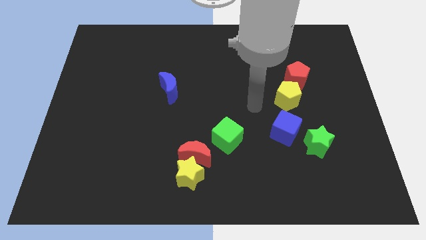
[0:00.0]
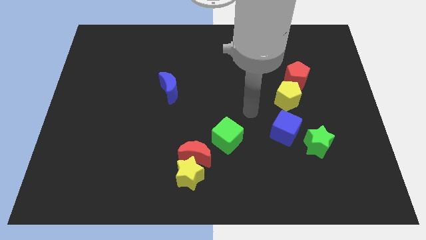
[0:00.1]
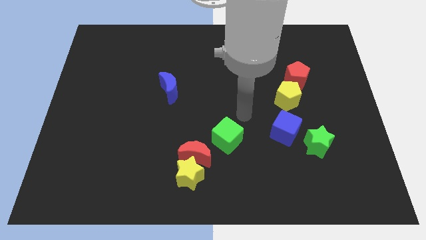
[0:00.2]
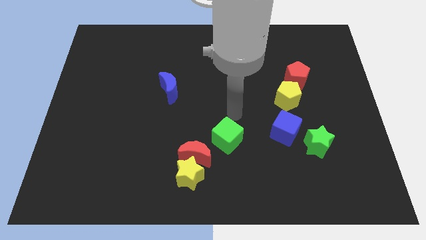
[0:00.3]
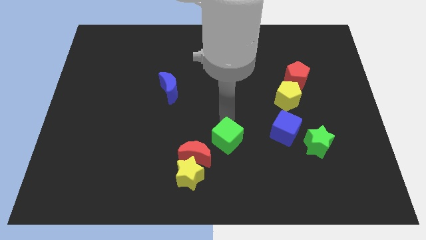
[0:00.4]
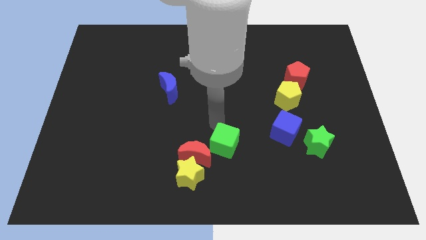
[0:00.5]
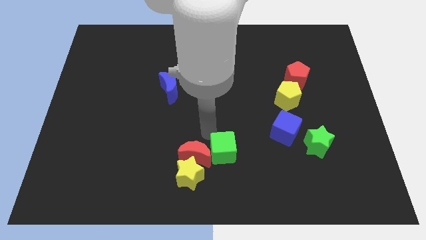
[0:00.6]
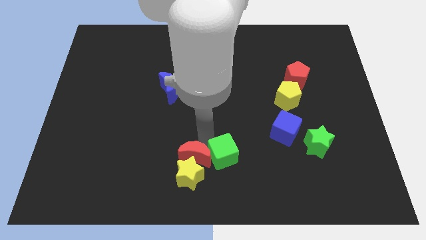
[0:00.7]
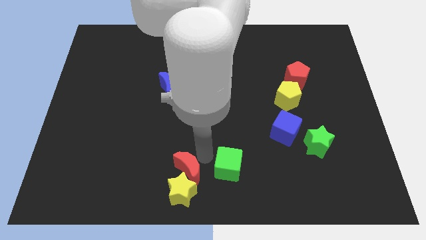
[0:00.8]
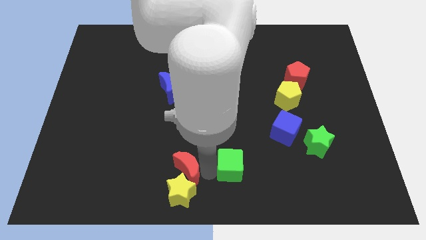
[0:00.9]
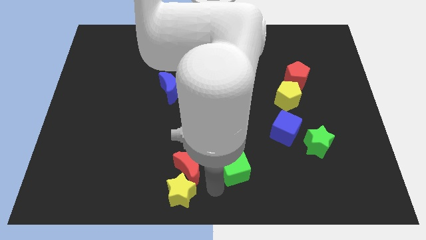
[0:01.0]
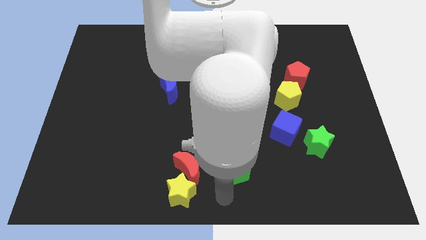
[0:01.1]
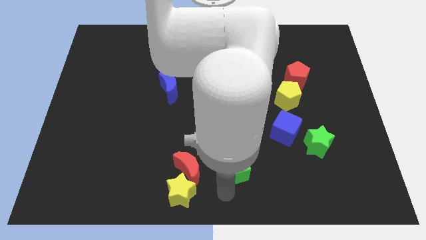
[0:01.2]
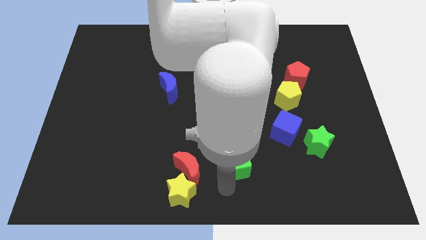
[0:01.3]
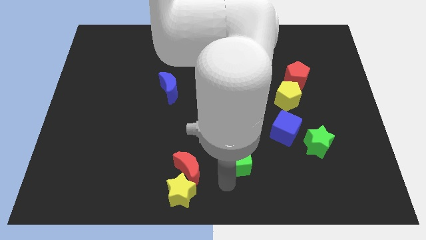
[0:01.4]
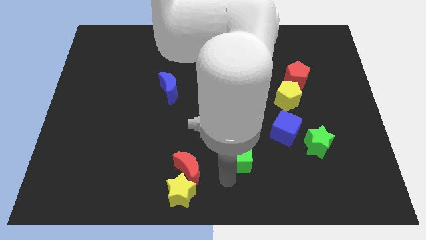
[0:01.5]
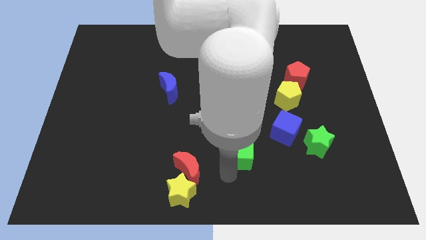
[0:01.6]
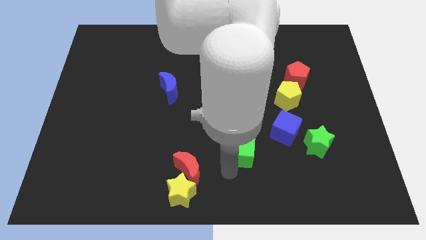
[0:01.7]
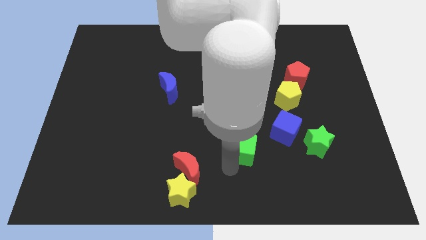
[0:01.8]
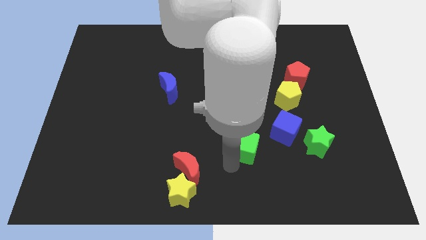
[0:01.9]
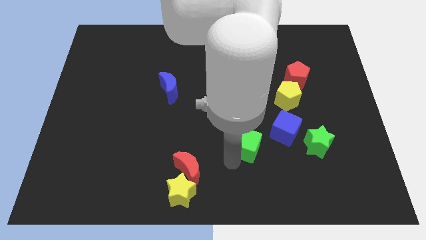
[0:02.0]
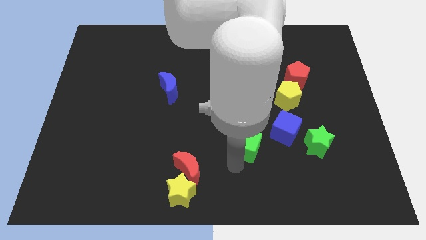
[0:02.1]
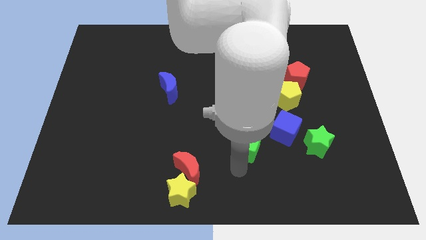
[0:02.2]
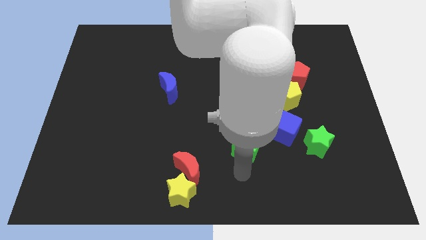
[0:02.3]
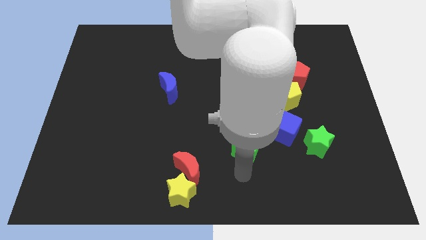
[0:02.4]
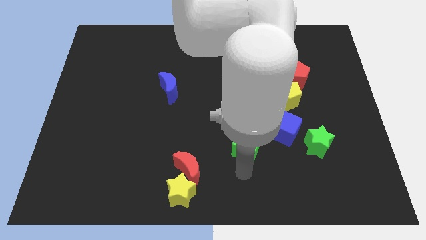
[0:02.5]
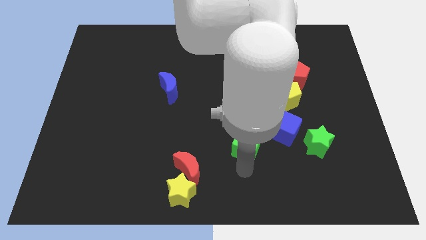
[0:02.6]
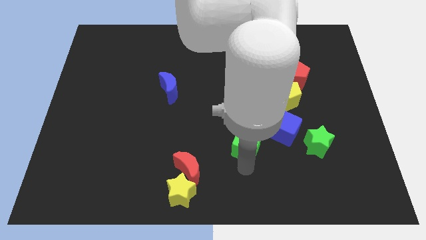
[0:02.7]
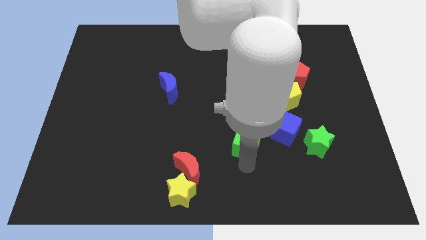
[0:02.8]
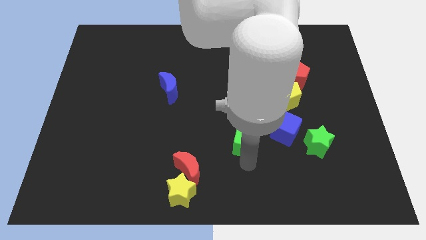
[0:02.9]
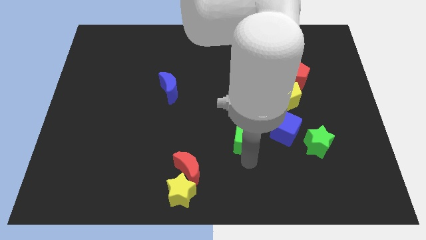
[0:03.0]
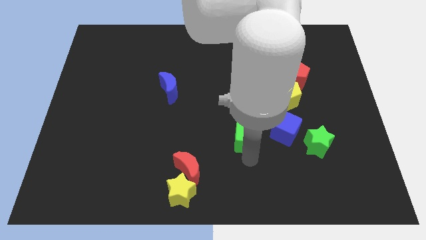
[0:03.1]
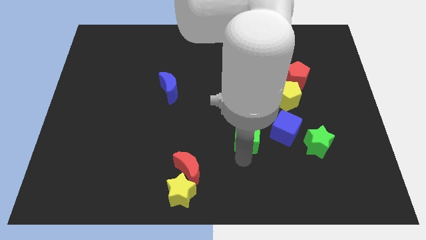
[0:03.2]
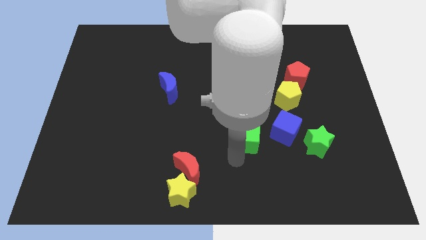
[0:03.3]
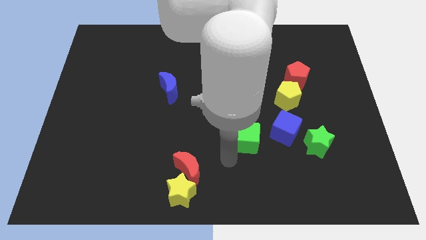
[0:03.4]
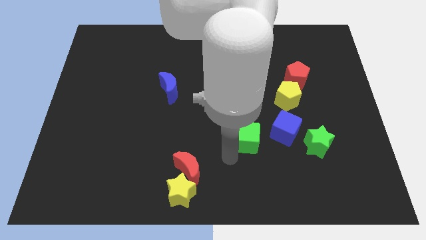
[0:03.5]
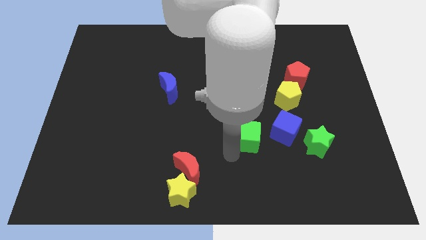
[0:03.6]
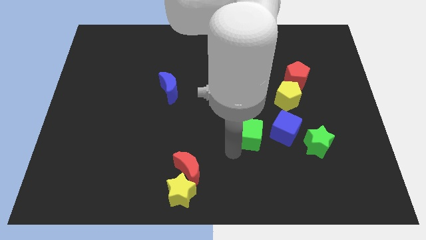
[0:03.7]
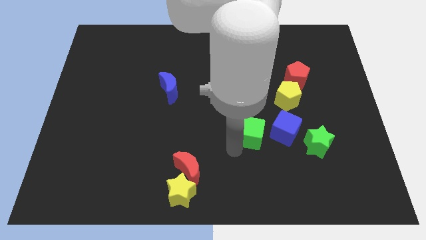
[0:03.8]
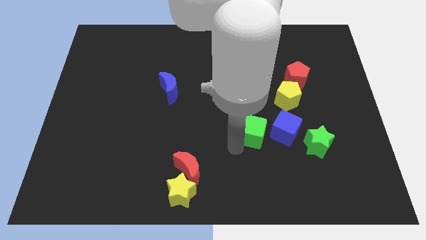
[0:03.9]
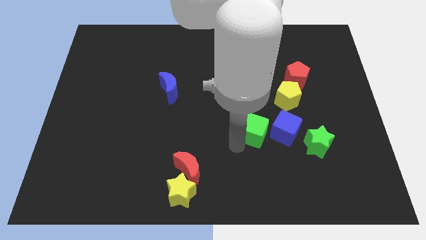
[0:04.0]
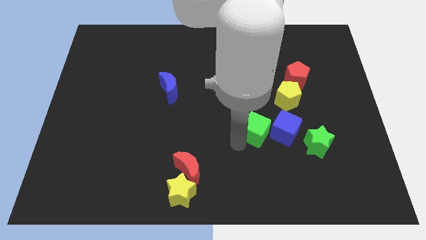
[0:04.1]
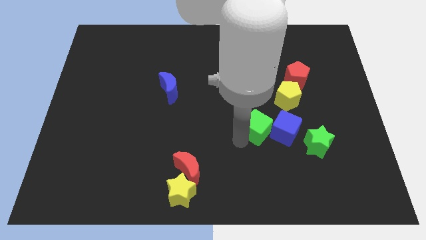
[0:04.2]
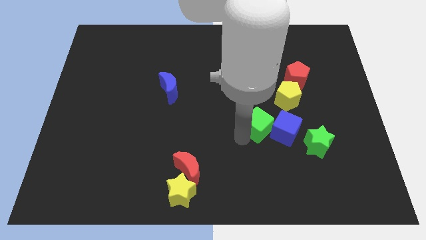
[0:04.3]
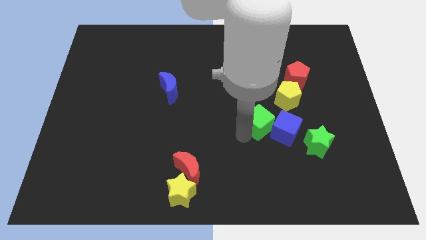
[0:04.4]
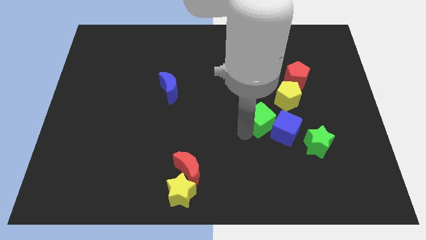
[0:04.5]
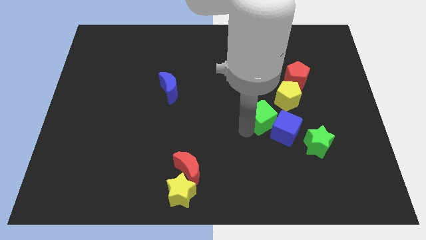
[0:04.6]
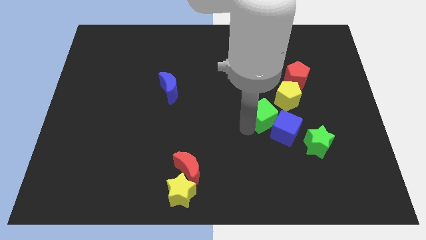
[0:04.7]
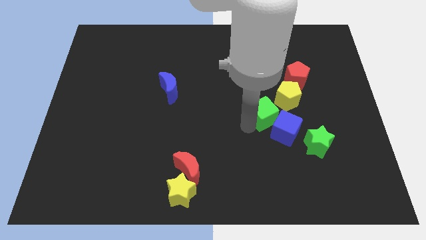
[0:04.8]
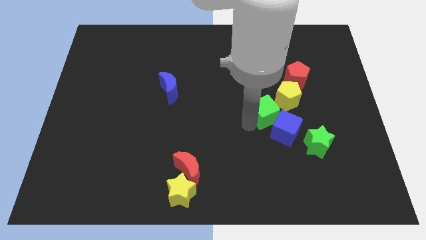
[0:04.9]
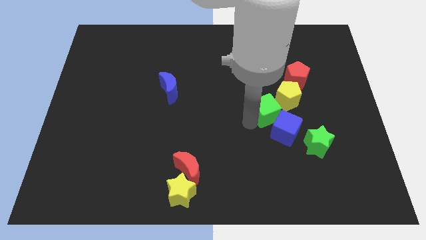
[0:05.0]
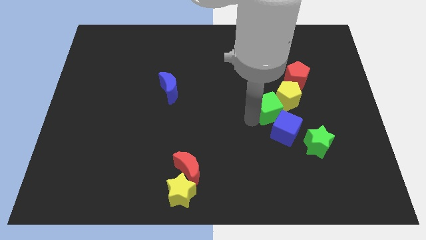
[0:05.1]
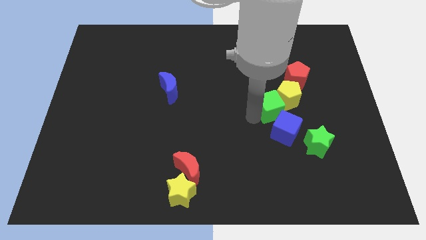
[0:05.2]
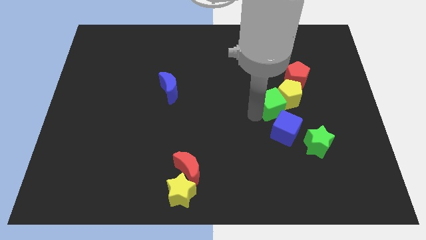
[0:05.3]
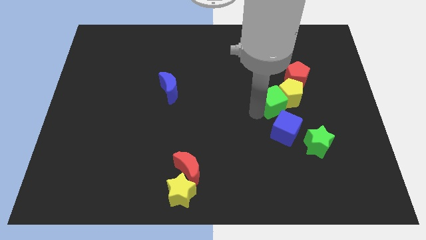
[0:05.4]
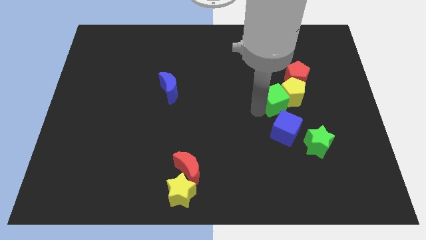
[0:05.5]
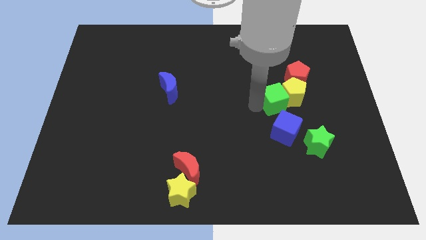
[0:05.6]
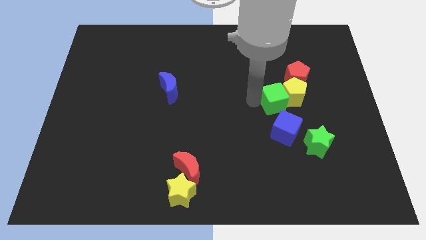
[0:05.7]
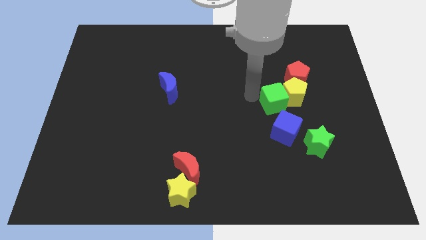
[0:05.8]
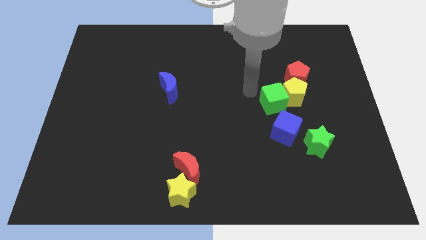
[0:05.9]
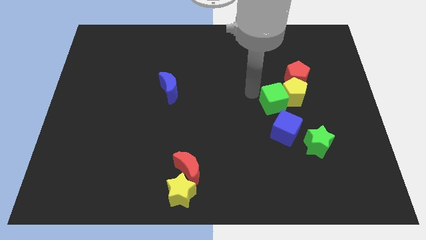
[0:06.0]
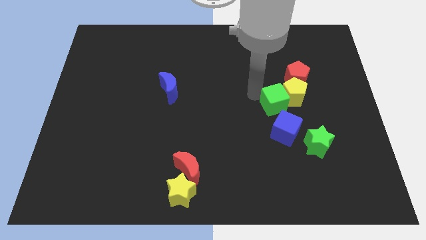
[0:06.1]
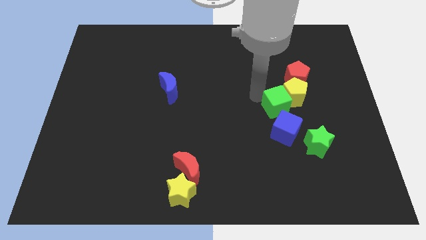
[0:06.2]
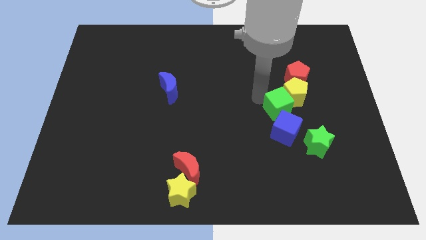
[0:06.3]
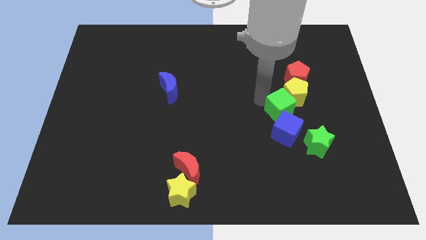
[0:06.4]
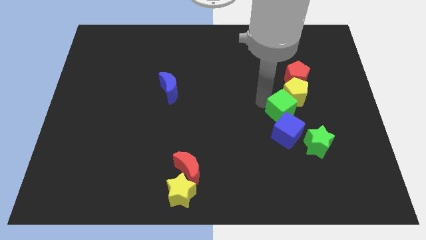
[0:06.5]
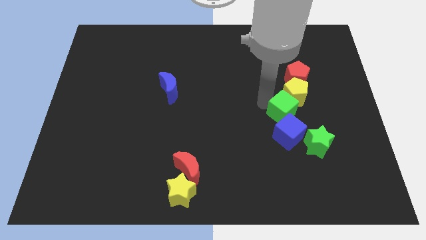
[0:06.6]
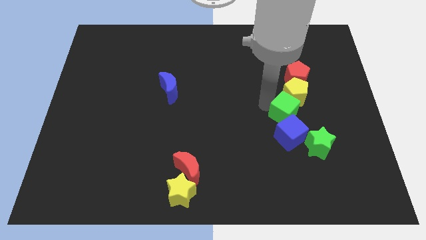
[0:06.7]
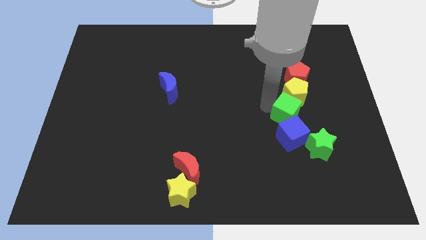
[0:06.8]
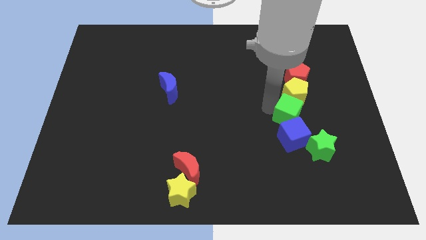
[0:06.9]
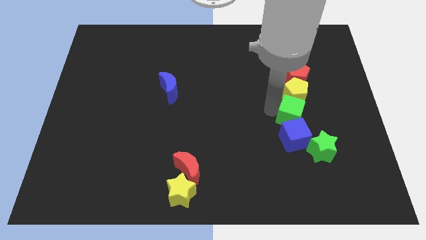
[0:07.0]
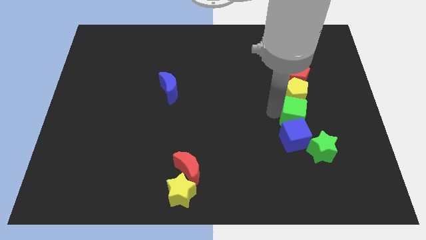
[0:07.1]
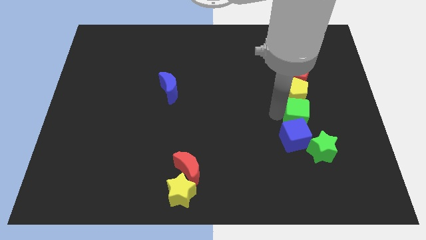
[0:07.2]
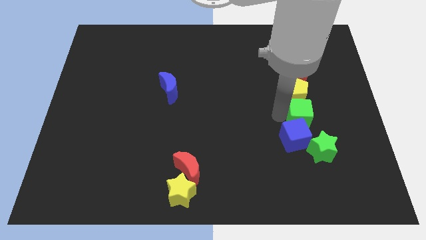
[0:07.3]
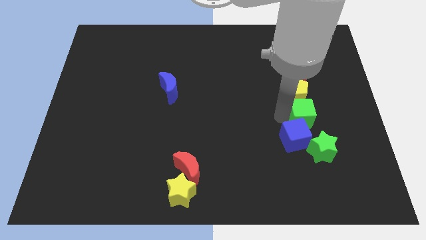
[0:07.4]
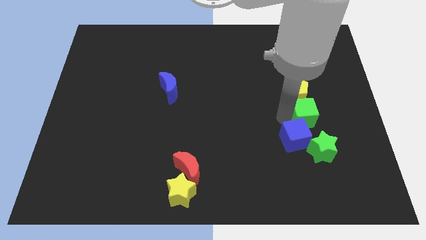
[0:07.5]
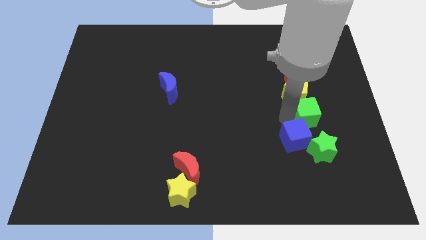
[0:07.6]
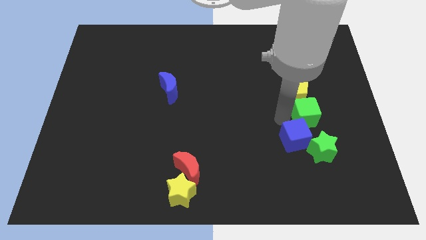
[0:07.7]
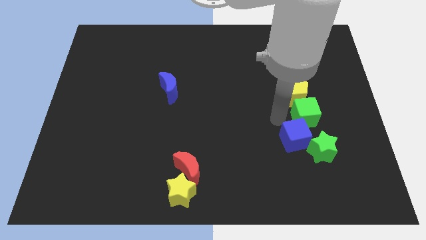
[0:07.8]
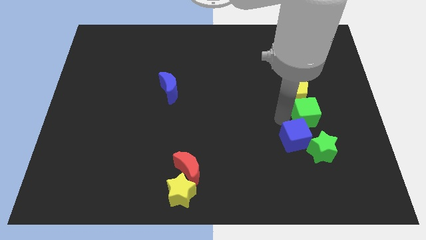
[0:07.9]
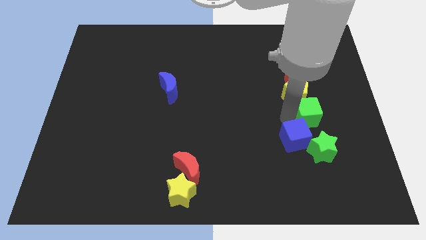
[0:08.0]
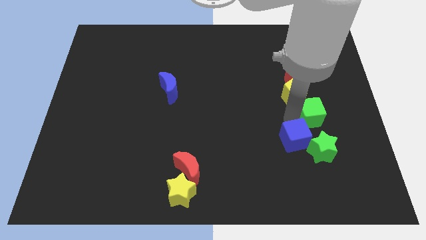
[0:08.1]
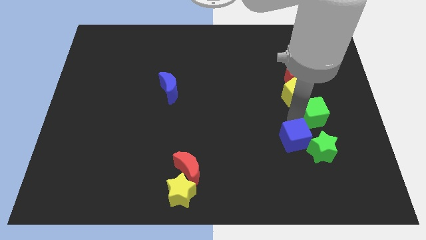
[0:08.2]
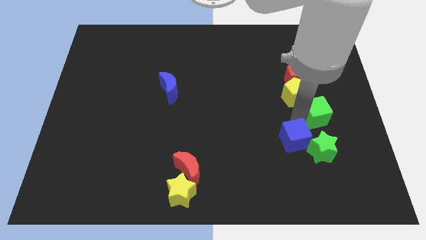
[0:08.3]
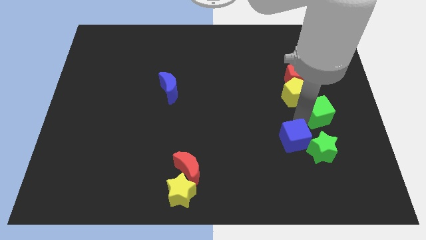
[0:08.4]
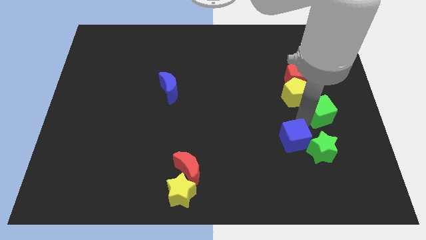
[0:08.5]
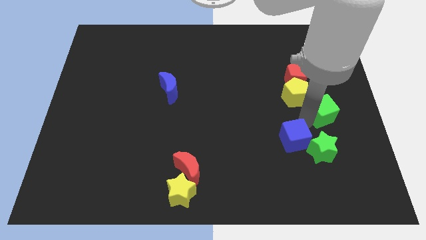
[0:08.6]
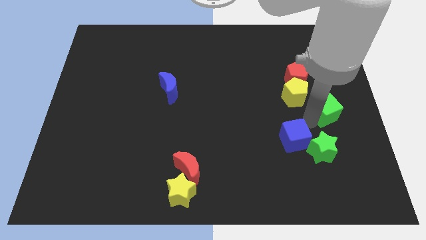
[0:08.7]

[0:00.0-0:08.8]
move the green cube to the center right
